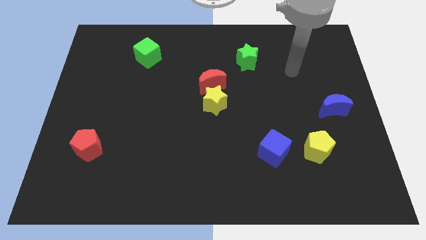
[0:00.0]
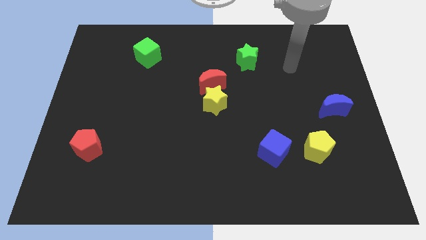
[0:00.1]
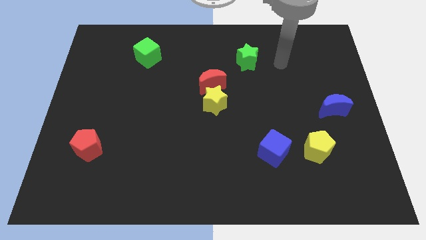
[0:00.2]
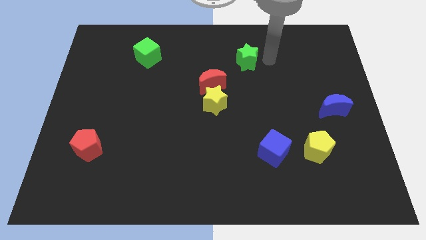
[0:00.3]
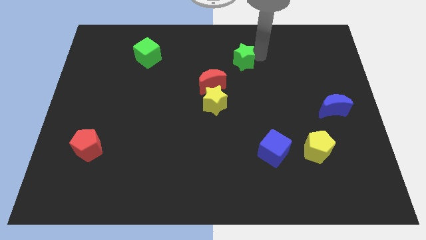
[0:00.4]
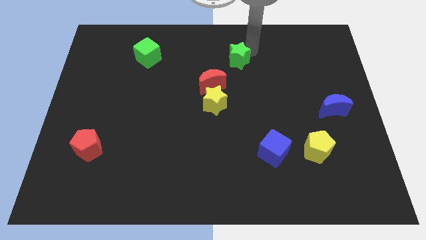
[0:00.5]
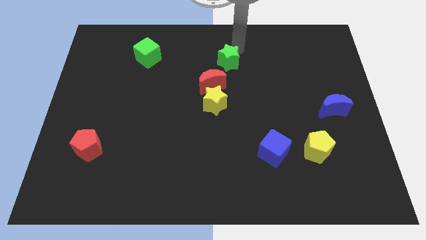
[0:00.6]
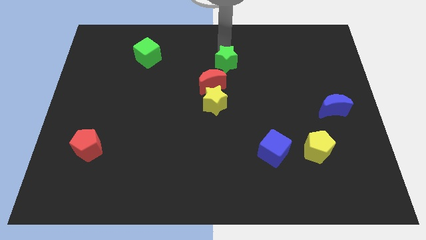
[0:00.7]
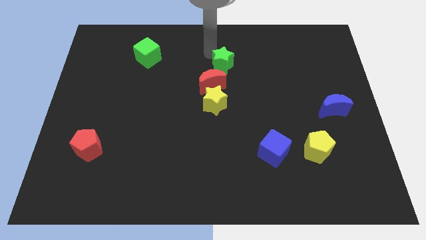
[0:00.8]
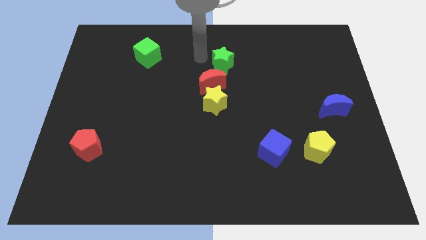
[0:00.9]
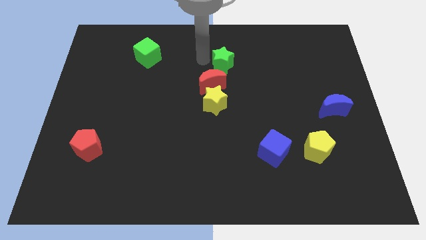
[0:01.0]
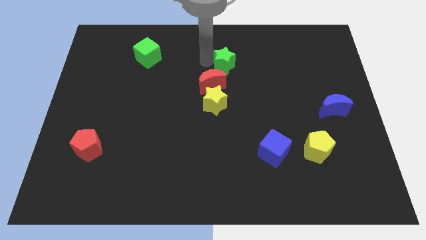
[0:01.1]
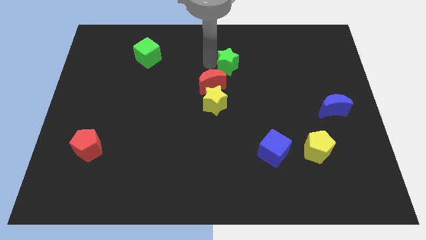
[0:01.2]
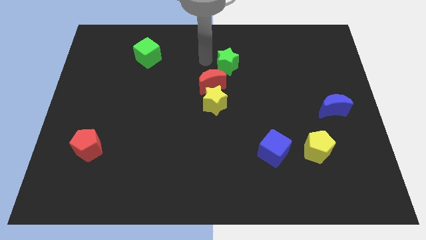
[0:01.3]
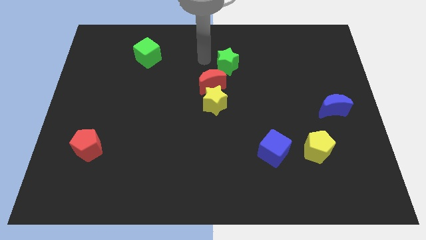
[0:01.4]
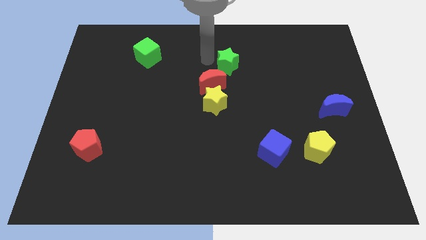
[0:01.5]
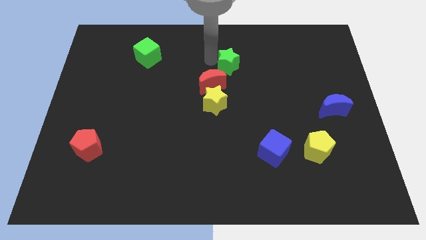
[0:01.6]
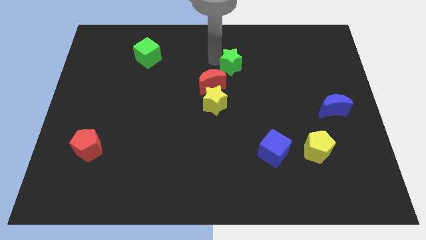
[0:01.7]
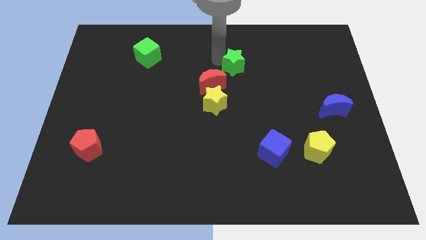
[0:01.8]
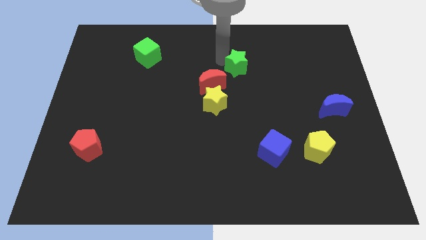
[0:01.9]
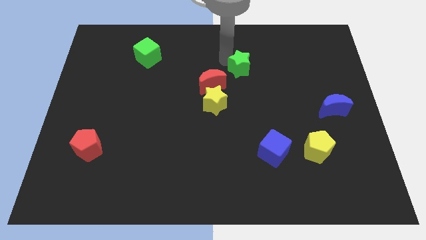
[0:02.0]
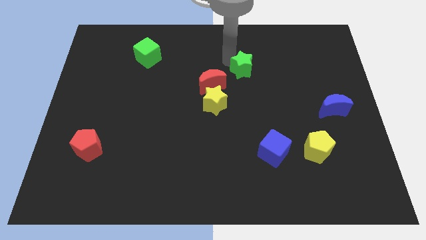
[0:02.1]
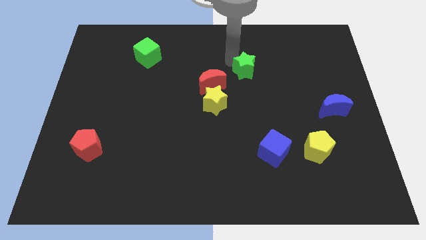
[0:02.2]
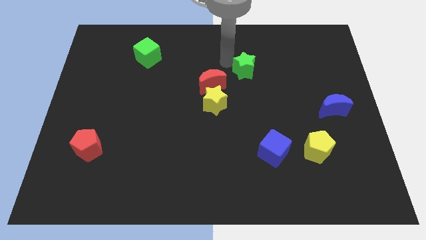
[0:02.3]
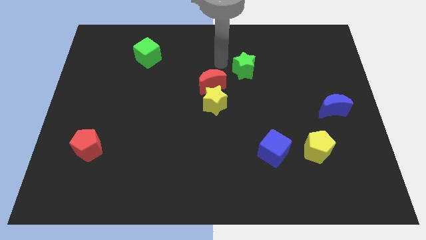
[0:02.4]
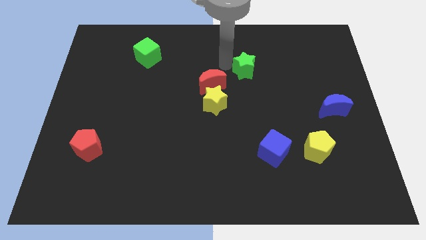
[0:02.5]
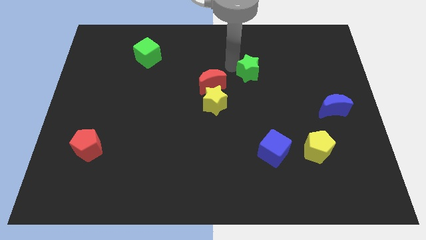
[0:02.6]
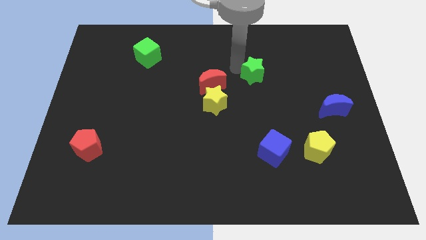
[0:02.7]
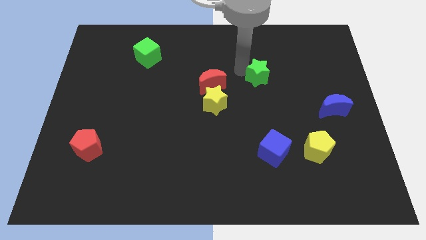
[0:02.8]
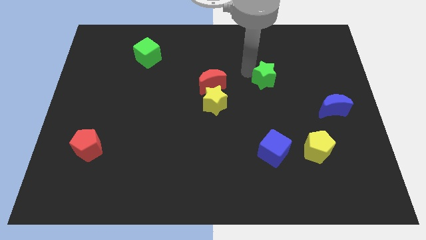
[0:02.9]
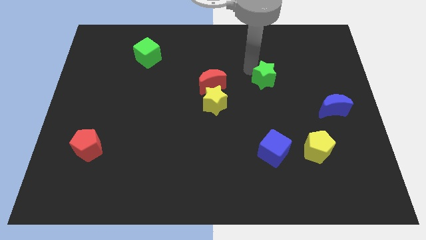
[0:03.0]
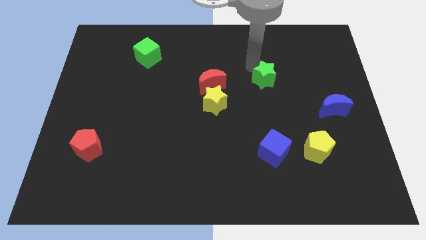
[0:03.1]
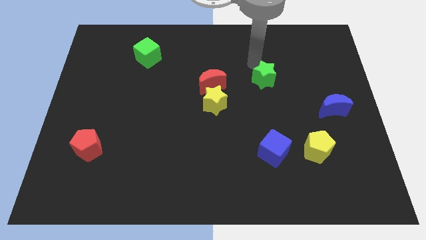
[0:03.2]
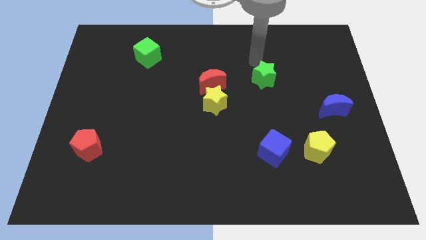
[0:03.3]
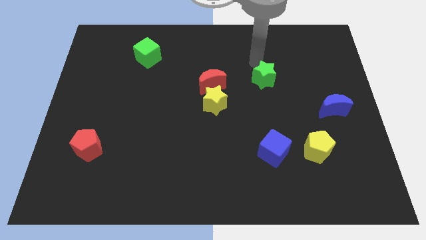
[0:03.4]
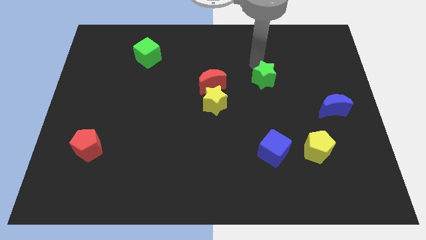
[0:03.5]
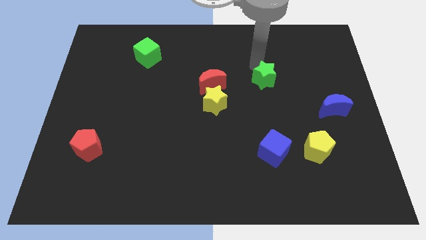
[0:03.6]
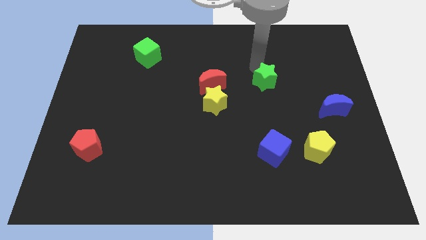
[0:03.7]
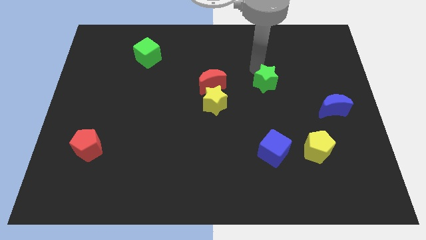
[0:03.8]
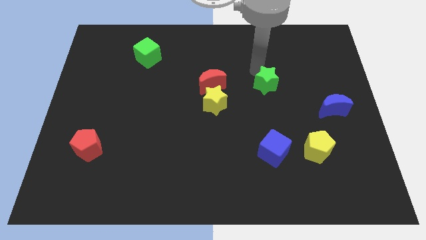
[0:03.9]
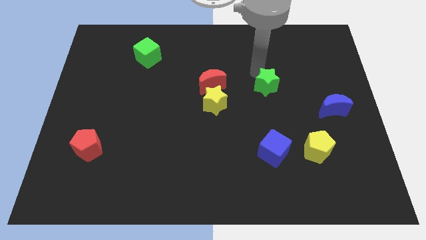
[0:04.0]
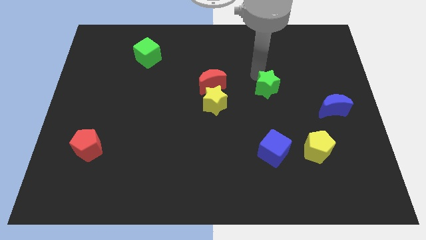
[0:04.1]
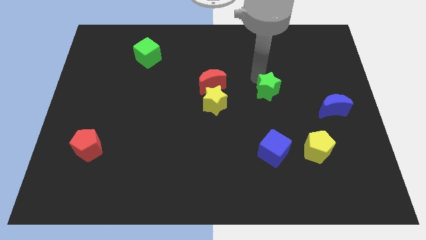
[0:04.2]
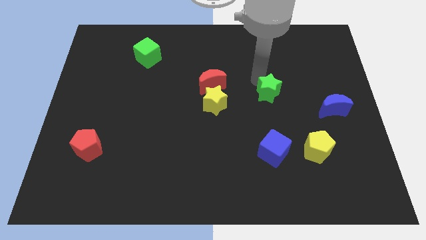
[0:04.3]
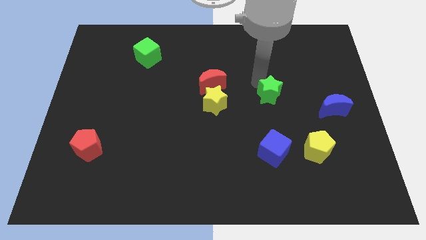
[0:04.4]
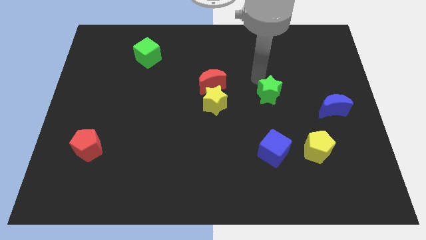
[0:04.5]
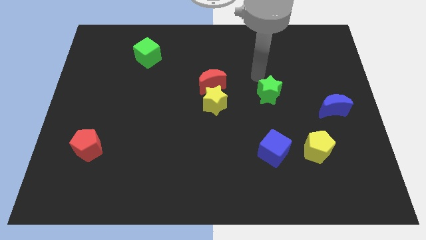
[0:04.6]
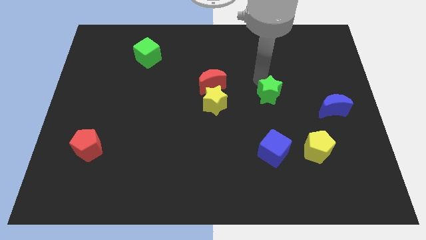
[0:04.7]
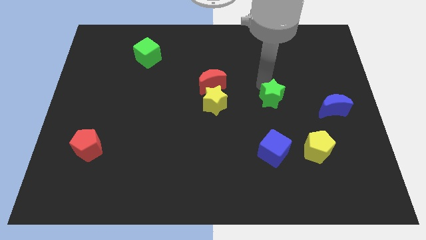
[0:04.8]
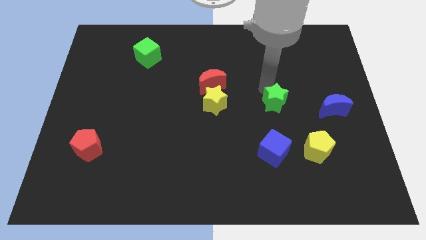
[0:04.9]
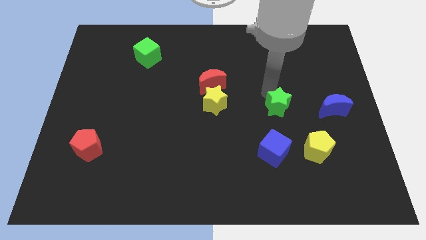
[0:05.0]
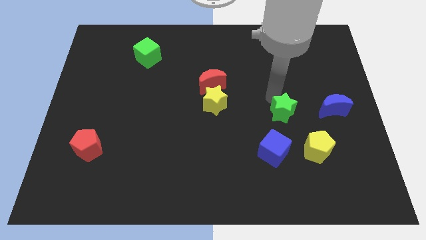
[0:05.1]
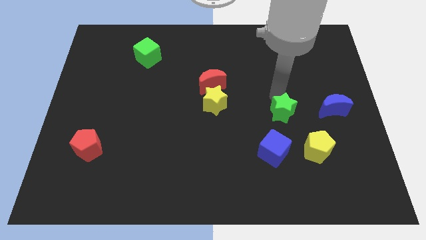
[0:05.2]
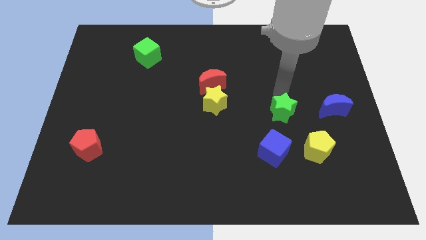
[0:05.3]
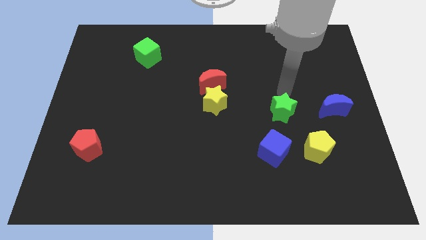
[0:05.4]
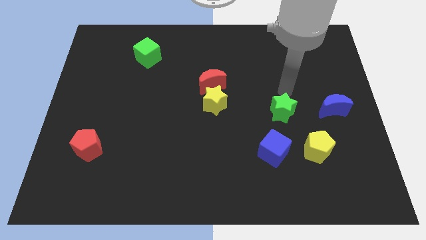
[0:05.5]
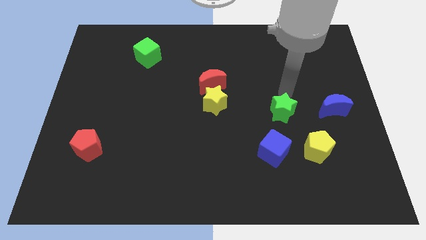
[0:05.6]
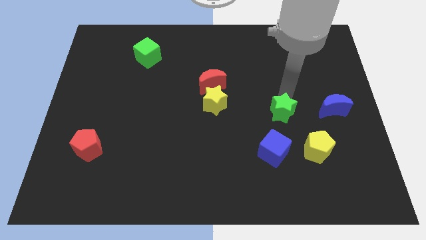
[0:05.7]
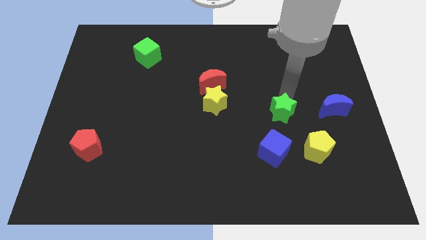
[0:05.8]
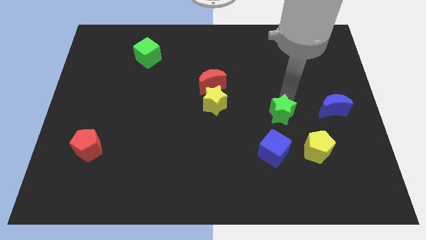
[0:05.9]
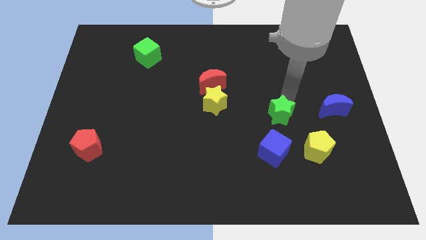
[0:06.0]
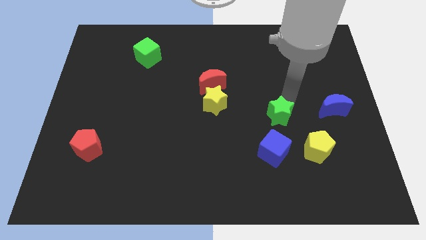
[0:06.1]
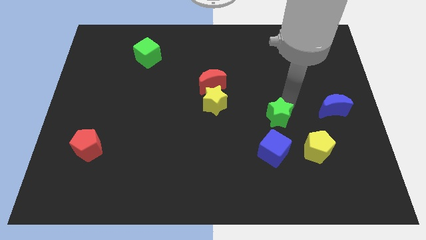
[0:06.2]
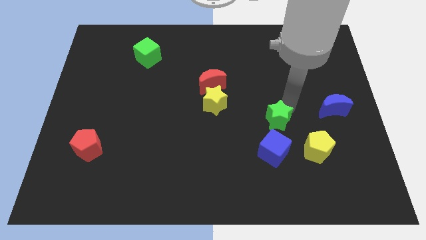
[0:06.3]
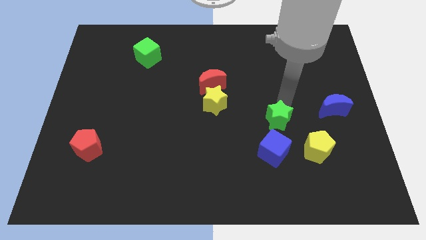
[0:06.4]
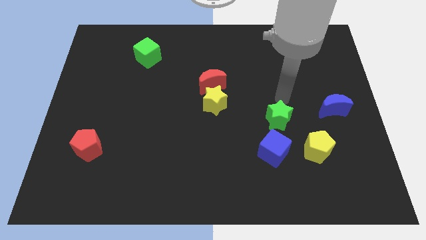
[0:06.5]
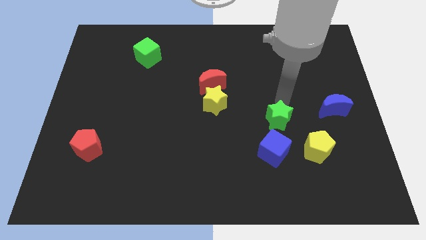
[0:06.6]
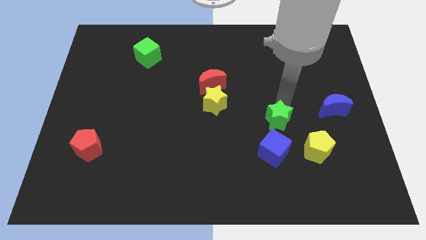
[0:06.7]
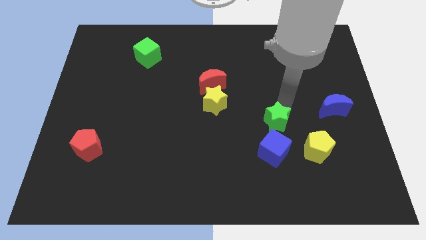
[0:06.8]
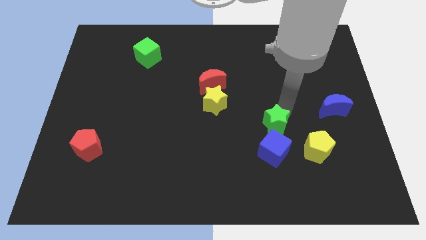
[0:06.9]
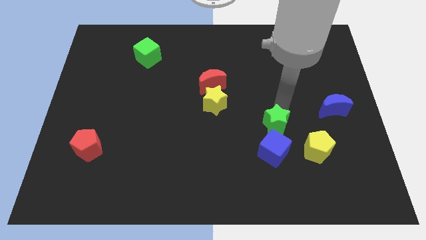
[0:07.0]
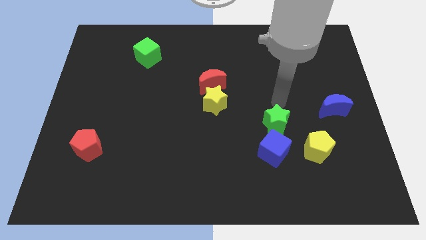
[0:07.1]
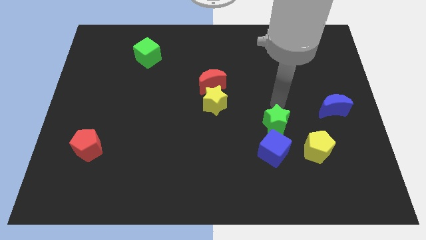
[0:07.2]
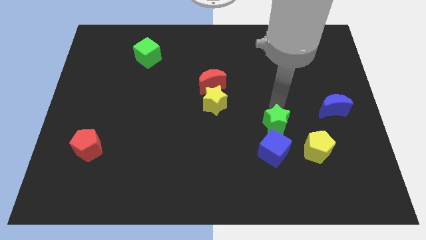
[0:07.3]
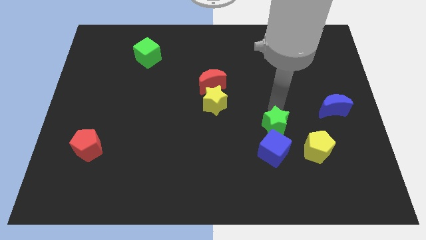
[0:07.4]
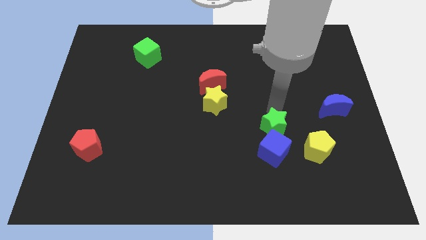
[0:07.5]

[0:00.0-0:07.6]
move the green star next to the blue cube

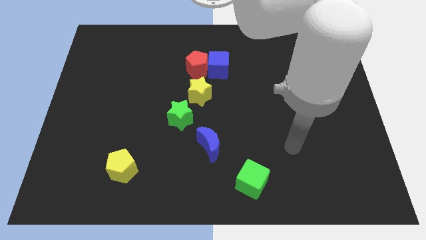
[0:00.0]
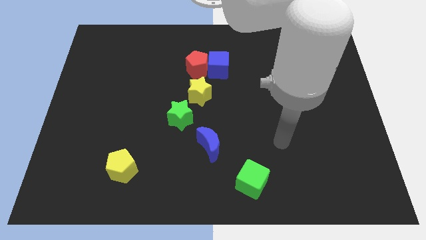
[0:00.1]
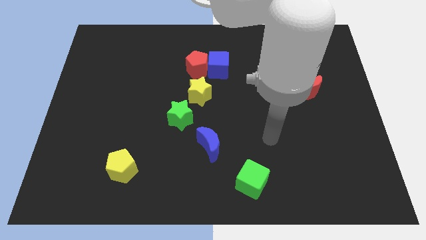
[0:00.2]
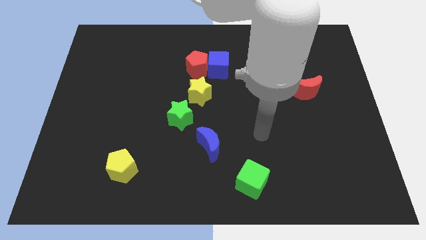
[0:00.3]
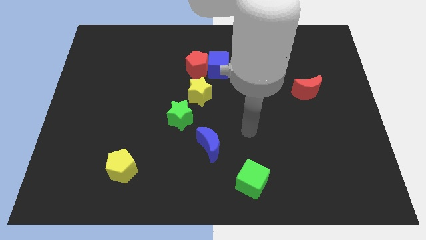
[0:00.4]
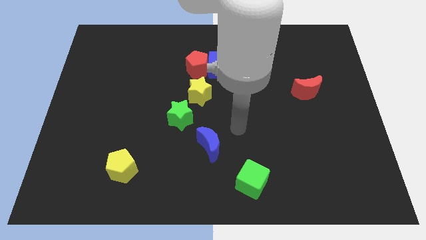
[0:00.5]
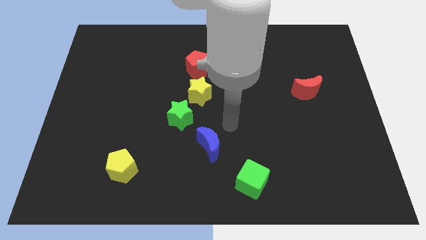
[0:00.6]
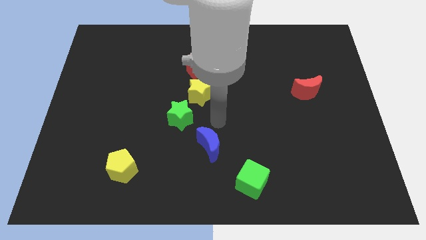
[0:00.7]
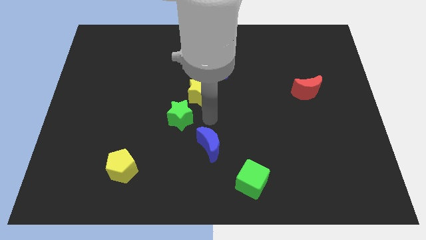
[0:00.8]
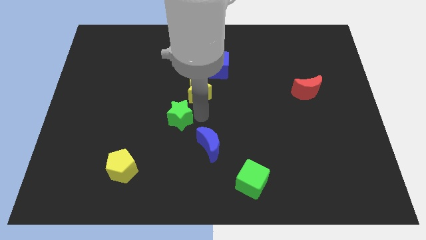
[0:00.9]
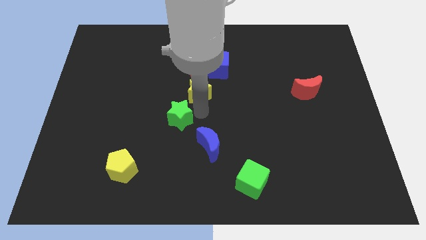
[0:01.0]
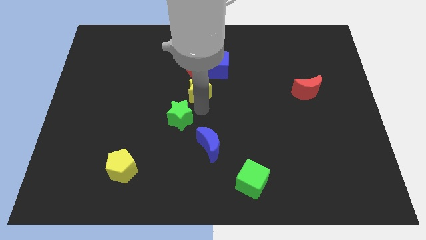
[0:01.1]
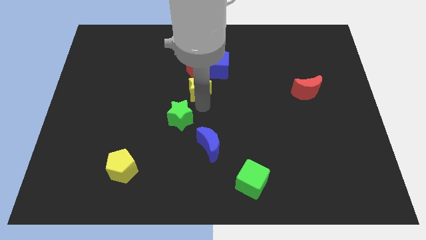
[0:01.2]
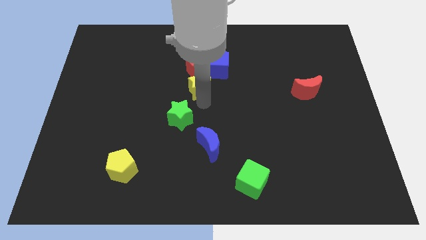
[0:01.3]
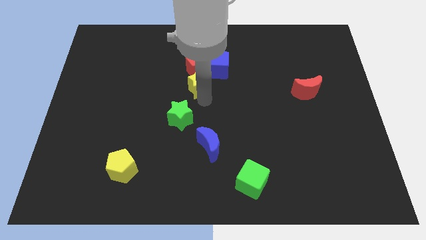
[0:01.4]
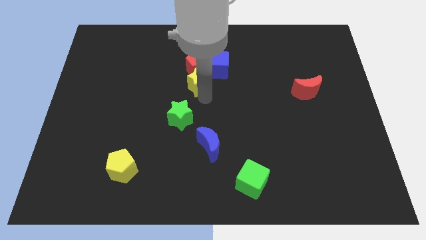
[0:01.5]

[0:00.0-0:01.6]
move the yellow star to the red pentagon
